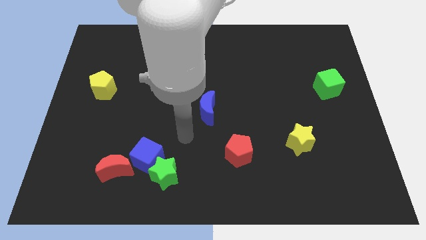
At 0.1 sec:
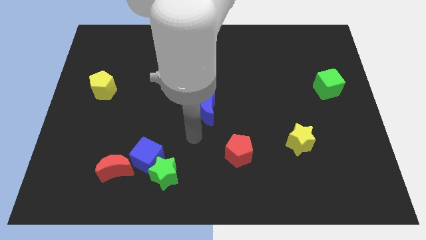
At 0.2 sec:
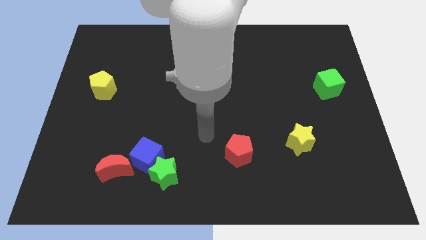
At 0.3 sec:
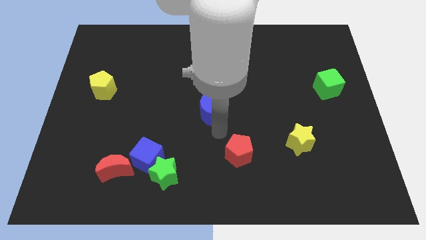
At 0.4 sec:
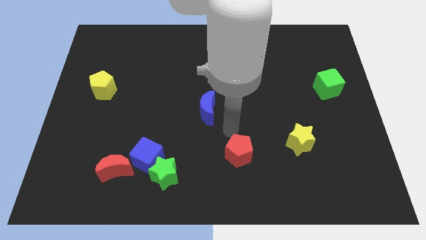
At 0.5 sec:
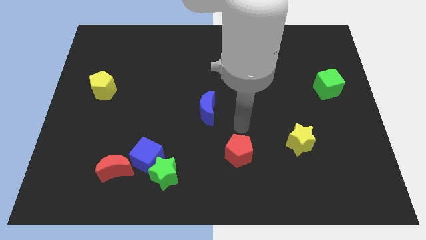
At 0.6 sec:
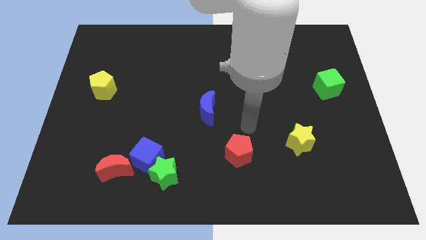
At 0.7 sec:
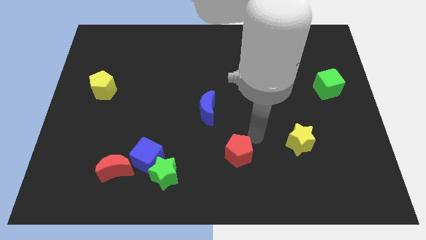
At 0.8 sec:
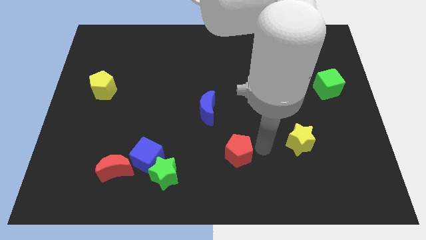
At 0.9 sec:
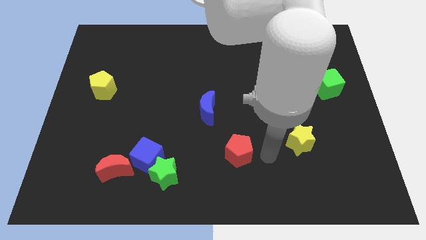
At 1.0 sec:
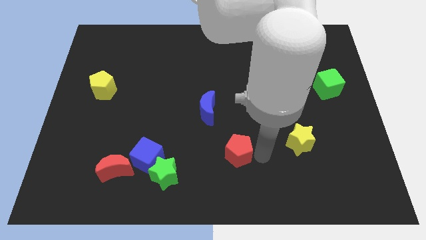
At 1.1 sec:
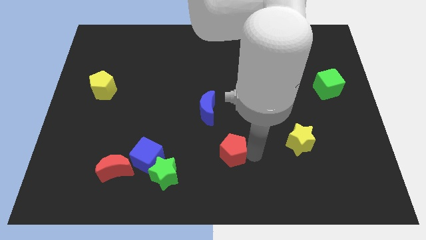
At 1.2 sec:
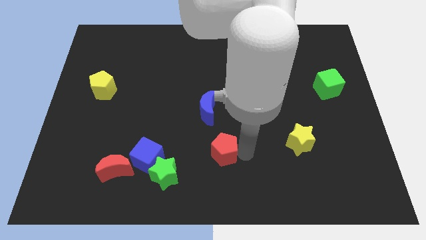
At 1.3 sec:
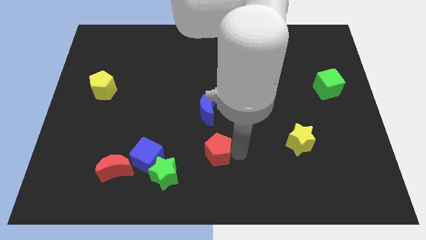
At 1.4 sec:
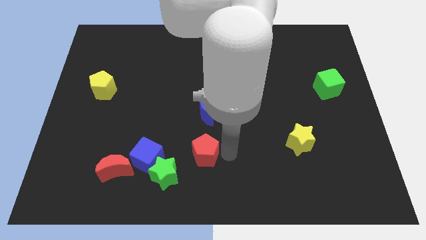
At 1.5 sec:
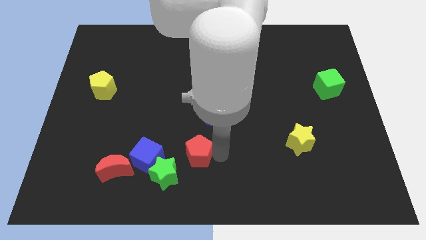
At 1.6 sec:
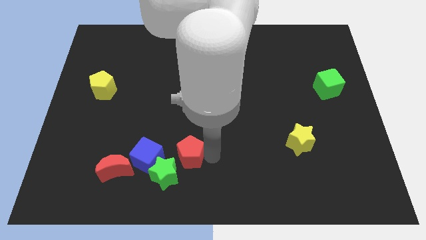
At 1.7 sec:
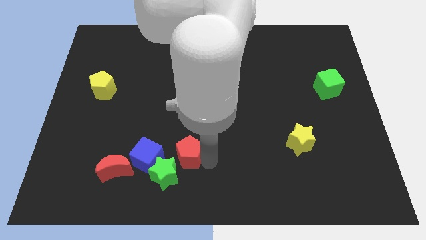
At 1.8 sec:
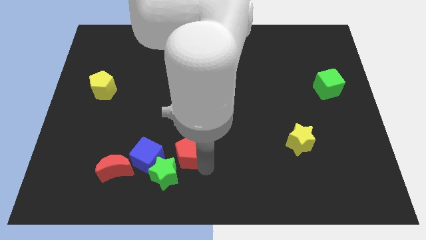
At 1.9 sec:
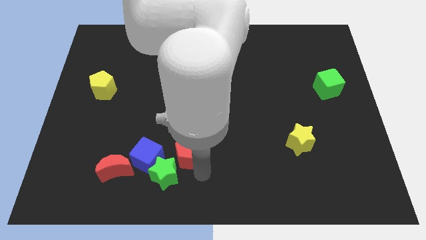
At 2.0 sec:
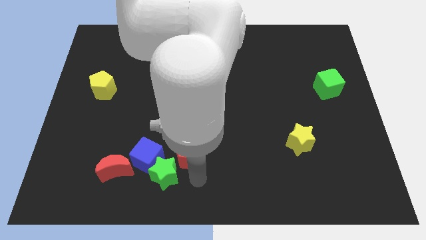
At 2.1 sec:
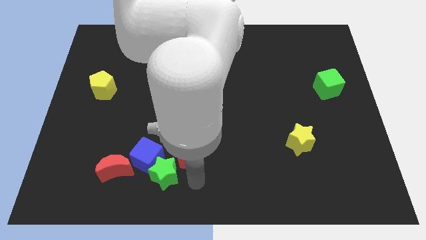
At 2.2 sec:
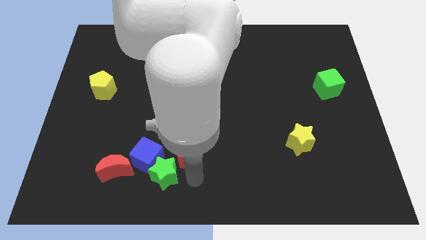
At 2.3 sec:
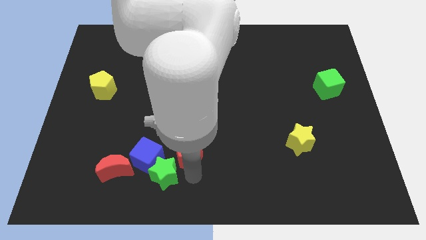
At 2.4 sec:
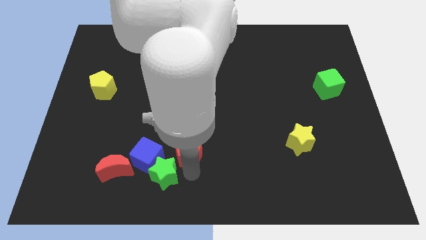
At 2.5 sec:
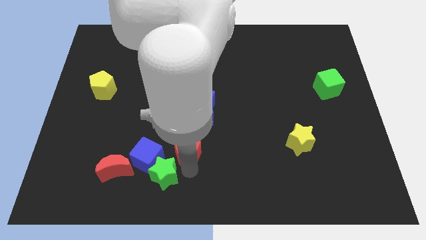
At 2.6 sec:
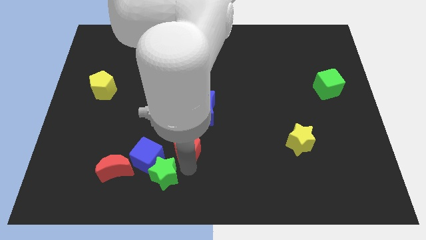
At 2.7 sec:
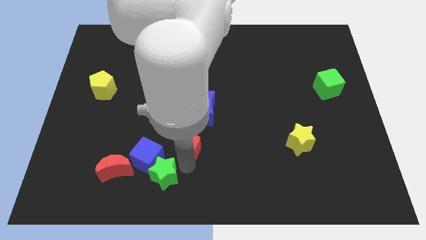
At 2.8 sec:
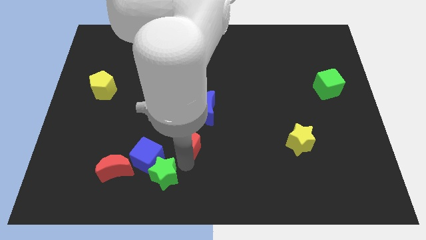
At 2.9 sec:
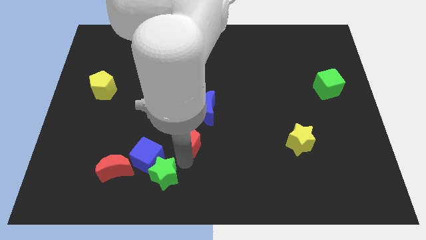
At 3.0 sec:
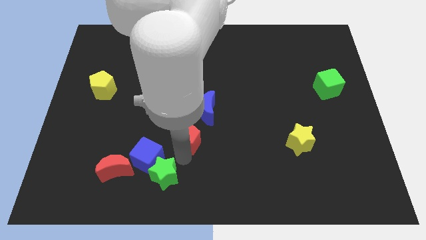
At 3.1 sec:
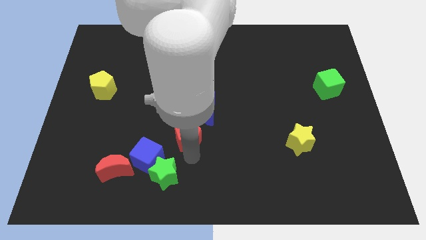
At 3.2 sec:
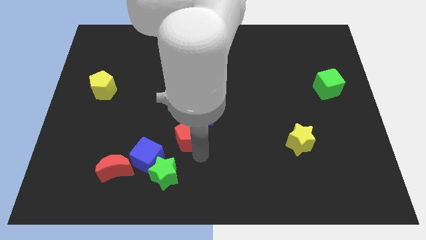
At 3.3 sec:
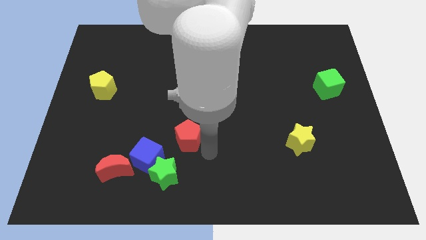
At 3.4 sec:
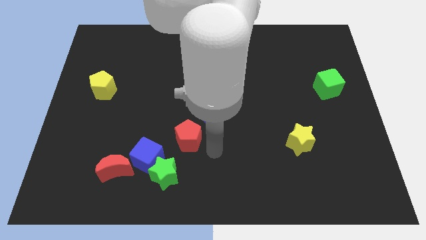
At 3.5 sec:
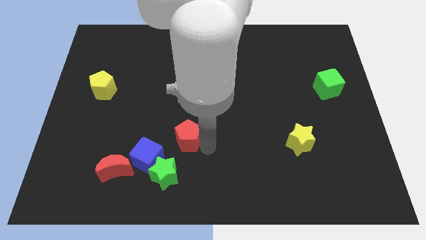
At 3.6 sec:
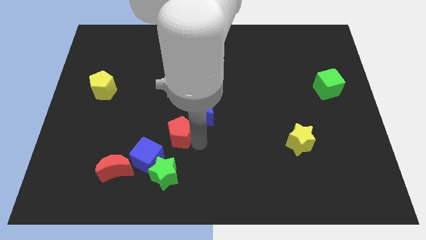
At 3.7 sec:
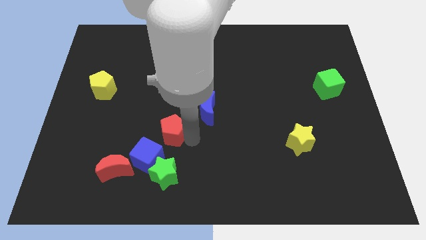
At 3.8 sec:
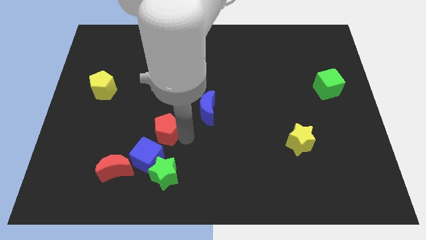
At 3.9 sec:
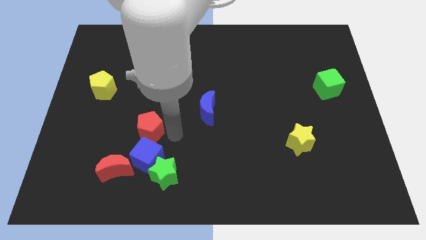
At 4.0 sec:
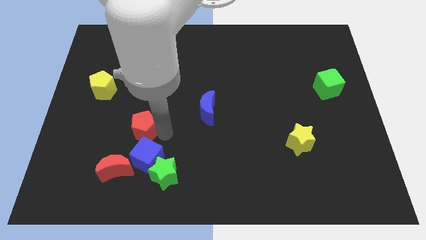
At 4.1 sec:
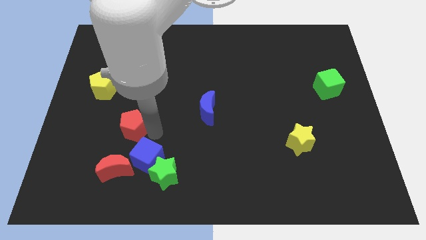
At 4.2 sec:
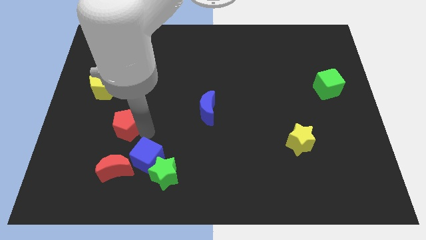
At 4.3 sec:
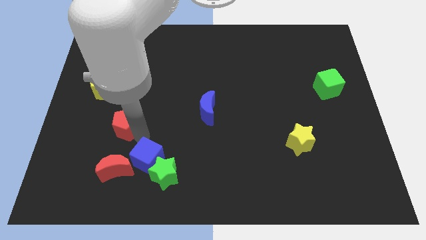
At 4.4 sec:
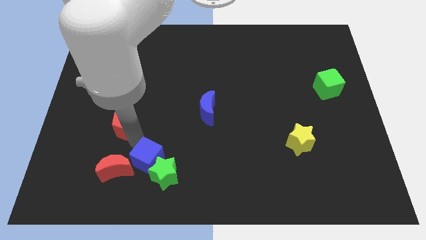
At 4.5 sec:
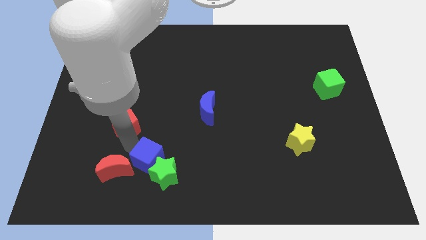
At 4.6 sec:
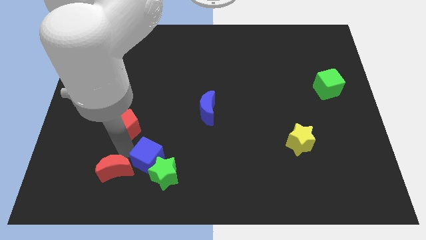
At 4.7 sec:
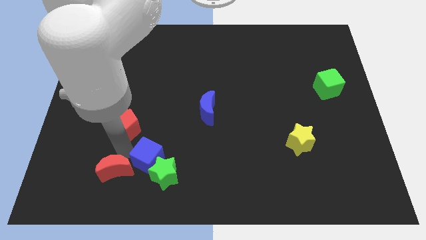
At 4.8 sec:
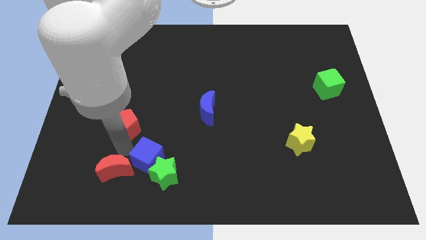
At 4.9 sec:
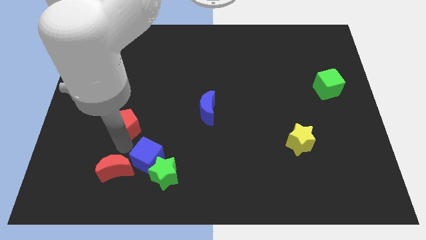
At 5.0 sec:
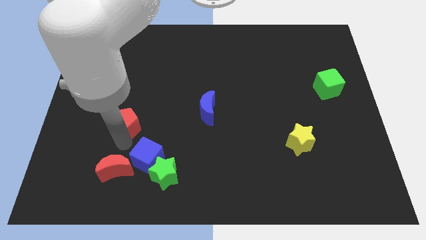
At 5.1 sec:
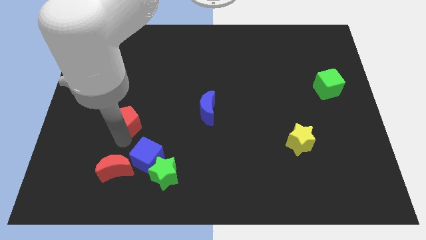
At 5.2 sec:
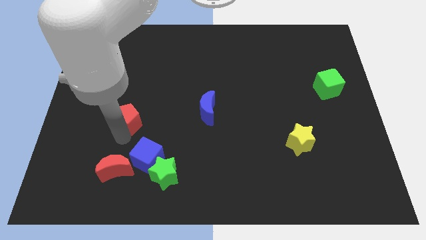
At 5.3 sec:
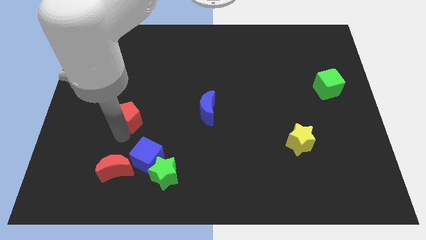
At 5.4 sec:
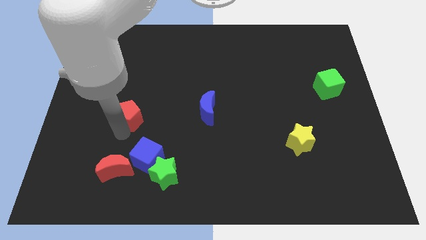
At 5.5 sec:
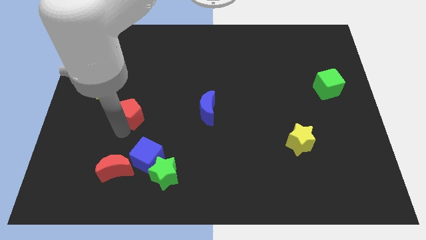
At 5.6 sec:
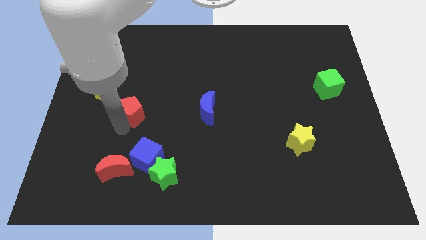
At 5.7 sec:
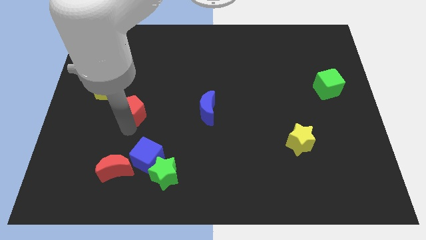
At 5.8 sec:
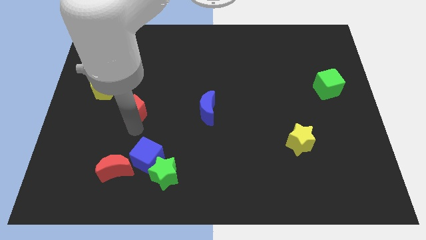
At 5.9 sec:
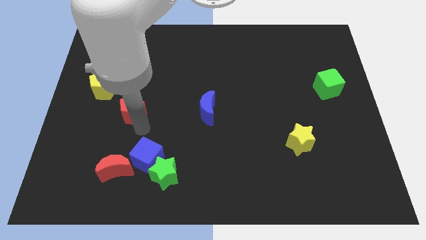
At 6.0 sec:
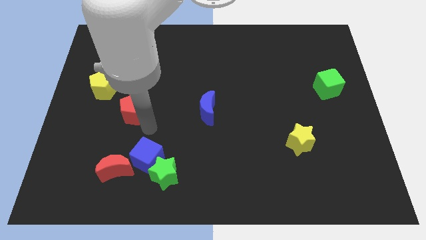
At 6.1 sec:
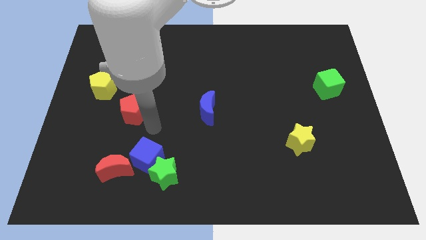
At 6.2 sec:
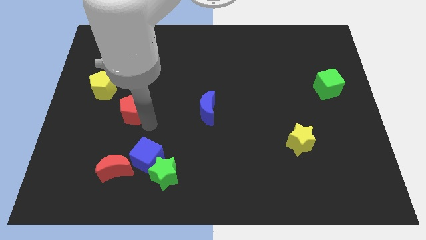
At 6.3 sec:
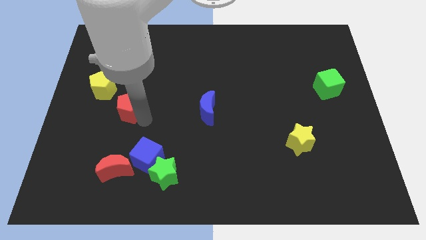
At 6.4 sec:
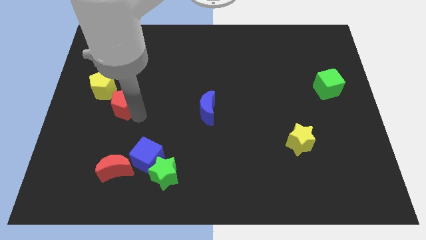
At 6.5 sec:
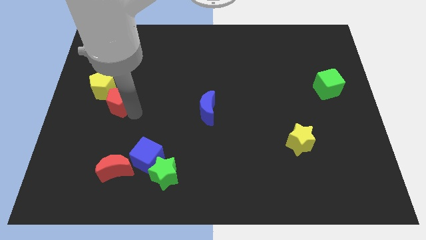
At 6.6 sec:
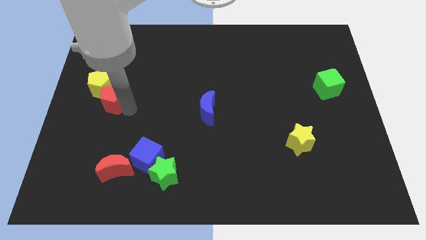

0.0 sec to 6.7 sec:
put the red pentagon to the yellow pentagon

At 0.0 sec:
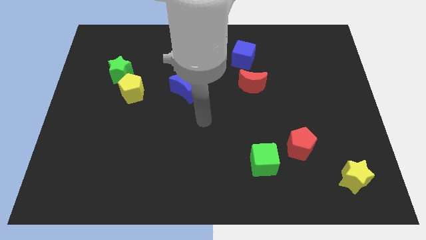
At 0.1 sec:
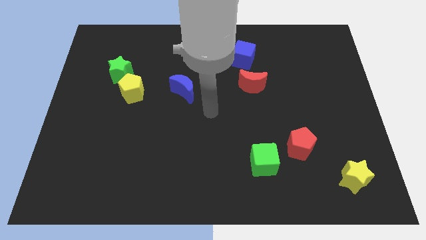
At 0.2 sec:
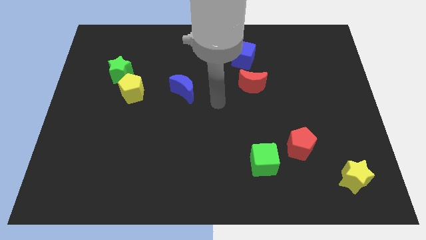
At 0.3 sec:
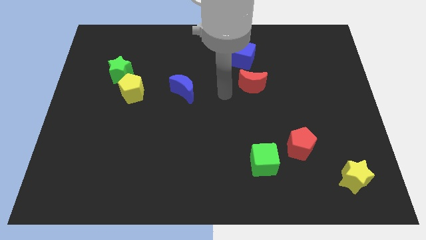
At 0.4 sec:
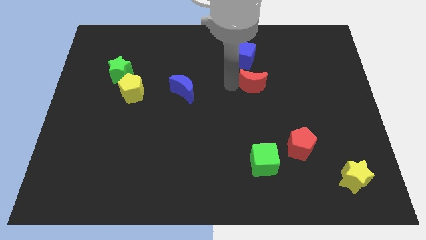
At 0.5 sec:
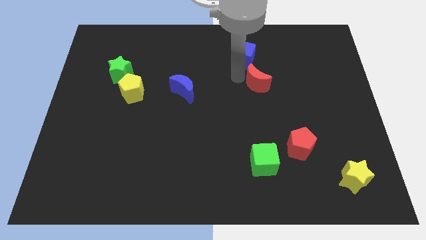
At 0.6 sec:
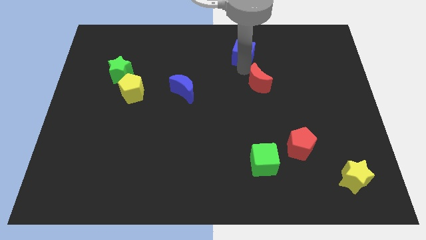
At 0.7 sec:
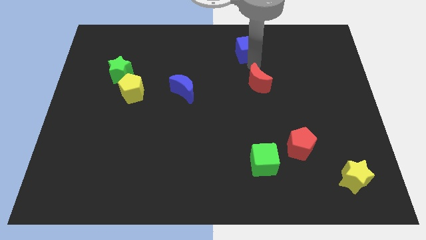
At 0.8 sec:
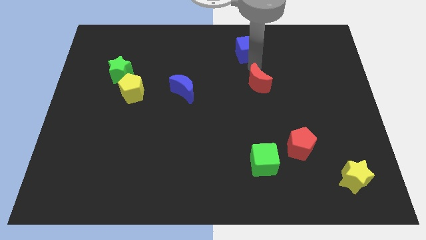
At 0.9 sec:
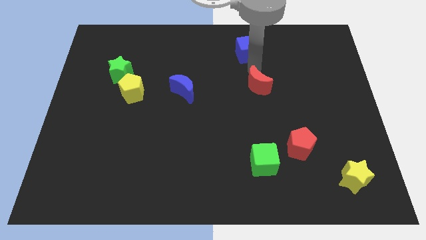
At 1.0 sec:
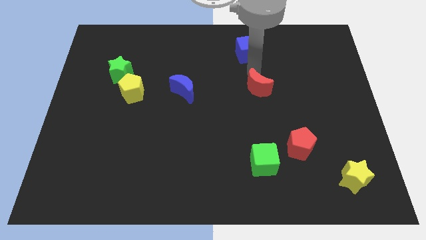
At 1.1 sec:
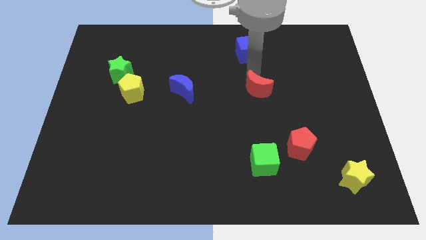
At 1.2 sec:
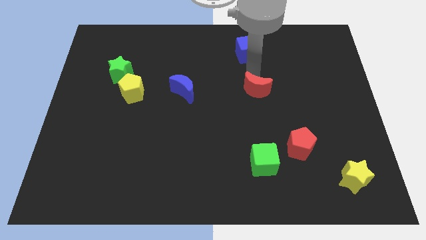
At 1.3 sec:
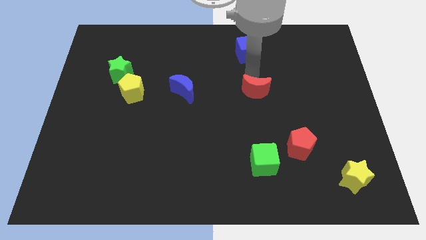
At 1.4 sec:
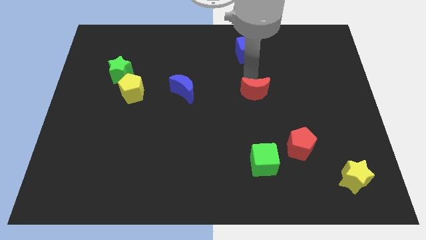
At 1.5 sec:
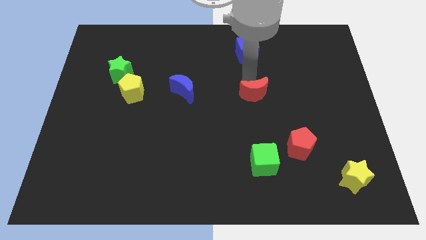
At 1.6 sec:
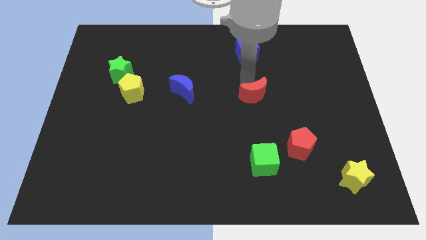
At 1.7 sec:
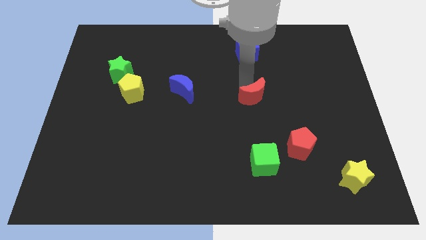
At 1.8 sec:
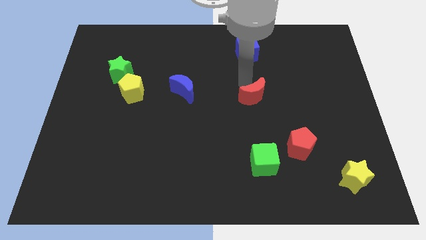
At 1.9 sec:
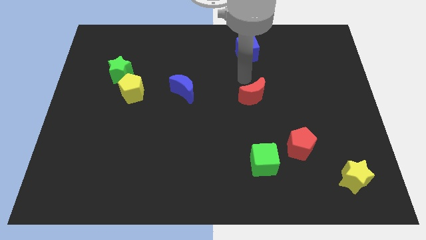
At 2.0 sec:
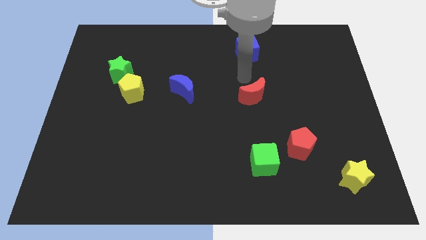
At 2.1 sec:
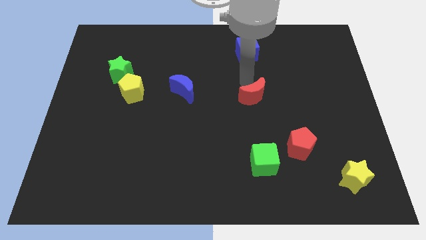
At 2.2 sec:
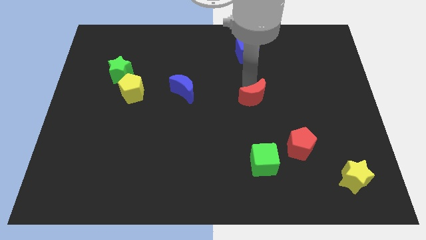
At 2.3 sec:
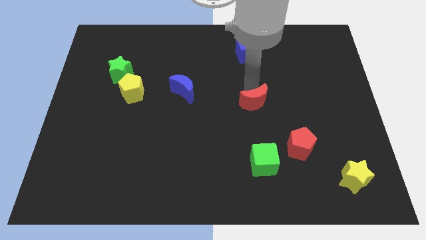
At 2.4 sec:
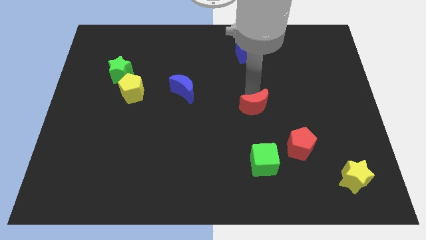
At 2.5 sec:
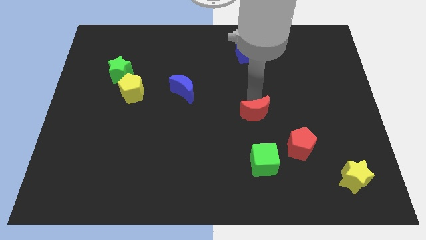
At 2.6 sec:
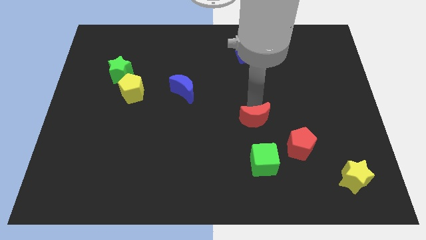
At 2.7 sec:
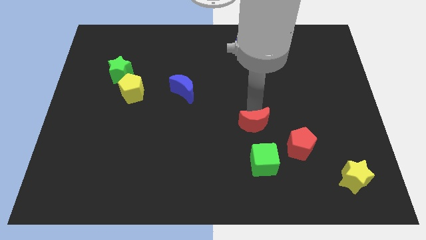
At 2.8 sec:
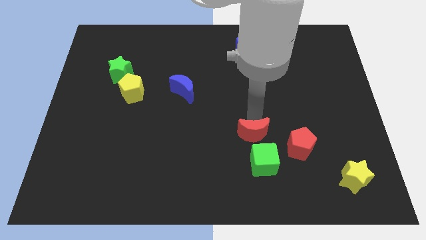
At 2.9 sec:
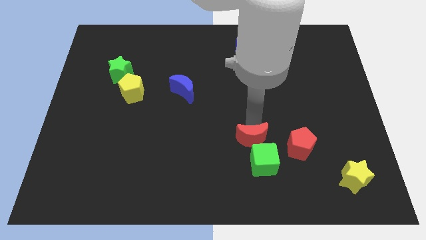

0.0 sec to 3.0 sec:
put the red moon close to the green cube
